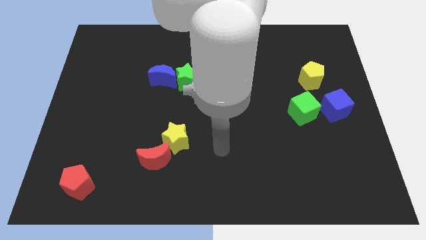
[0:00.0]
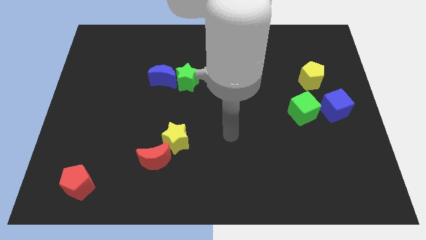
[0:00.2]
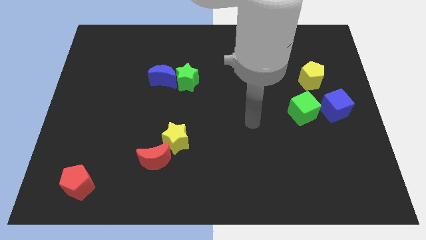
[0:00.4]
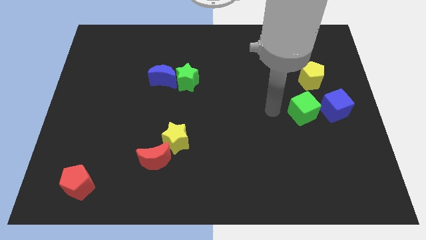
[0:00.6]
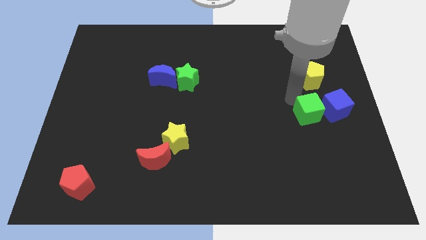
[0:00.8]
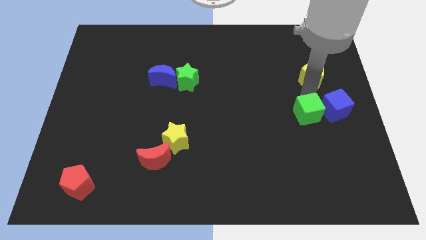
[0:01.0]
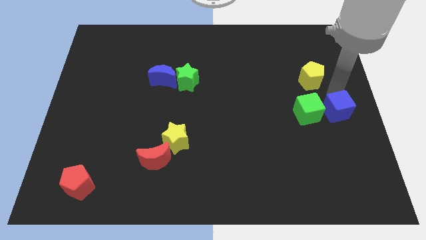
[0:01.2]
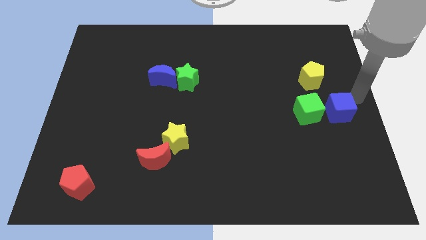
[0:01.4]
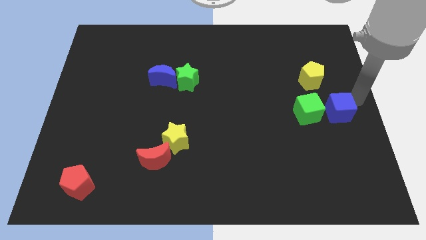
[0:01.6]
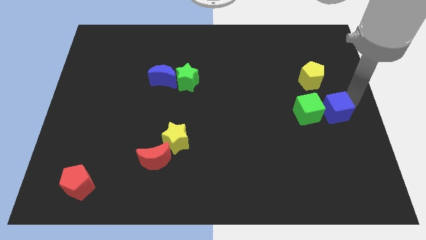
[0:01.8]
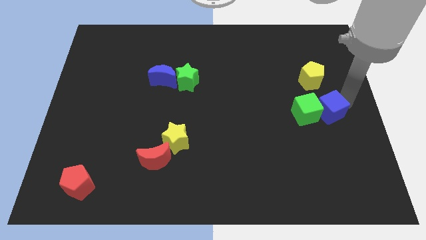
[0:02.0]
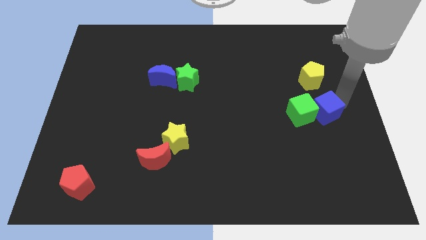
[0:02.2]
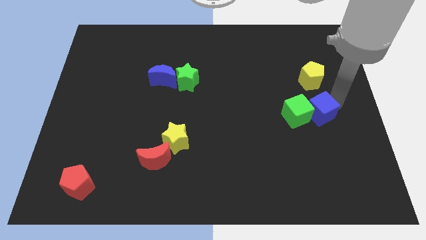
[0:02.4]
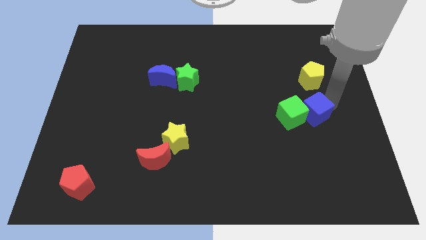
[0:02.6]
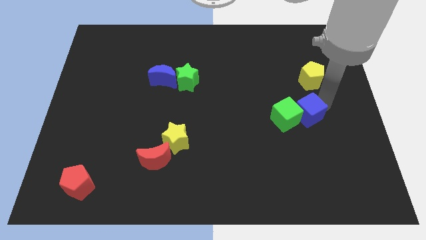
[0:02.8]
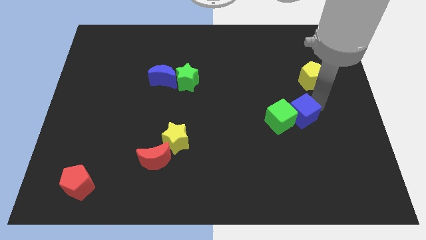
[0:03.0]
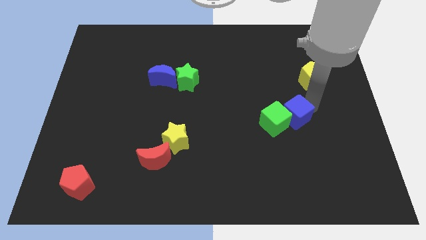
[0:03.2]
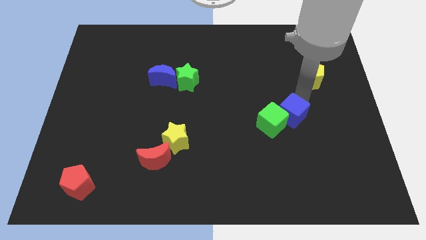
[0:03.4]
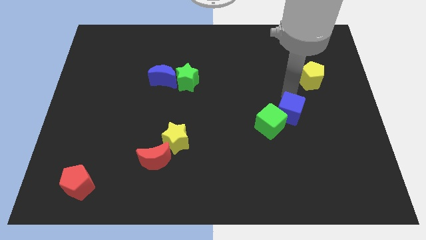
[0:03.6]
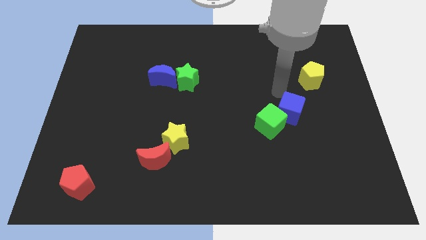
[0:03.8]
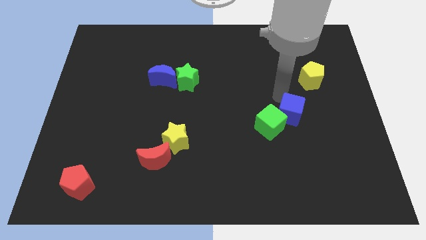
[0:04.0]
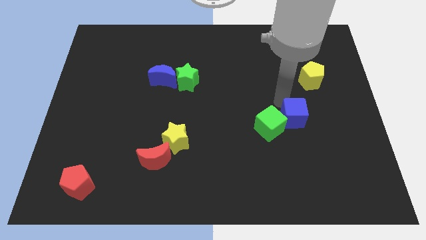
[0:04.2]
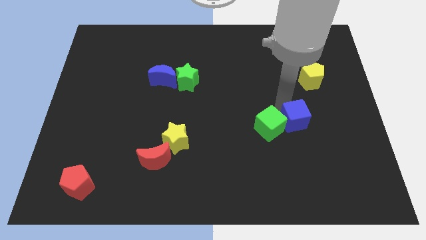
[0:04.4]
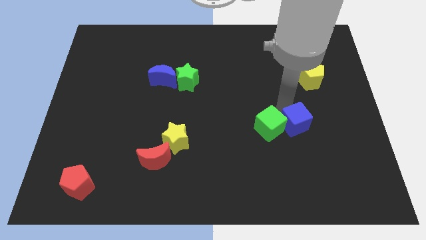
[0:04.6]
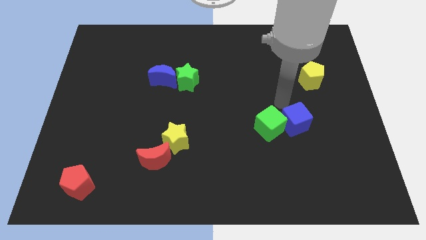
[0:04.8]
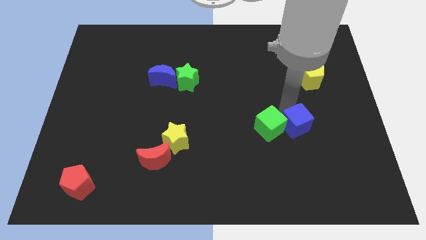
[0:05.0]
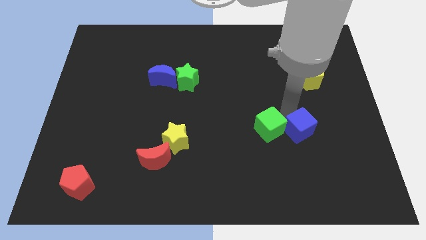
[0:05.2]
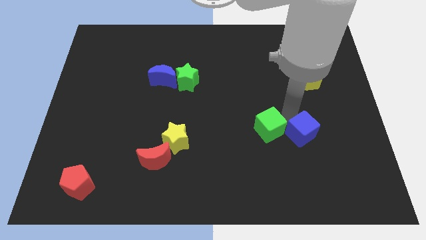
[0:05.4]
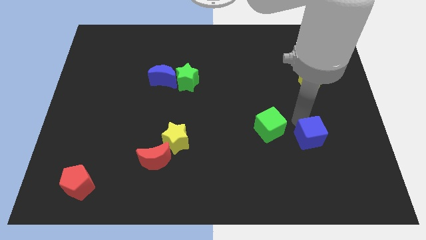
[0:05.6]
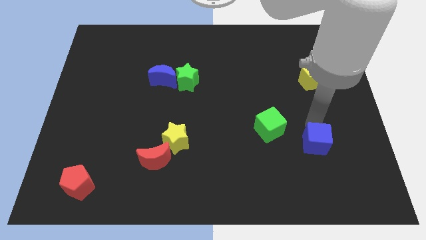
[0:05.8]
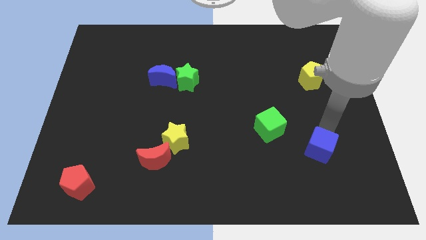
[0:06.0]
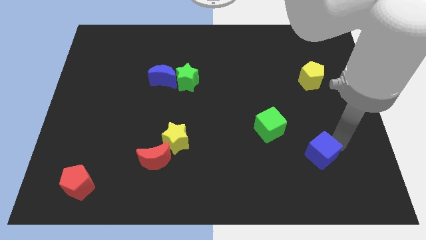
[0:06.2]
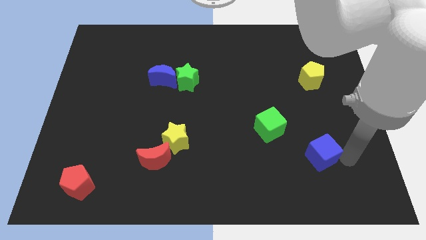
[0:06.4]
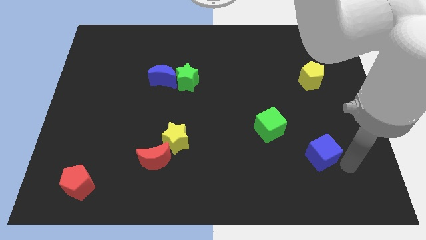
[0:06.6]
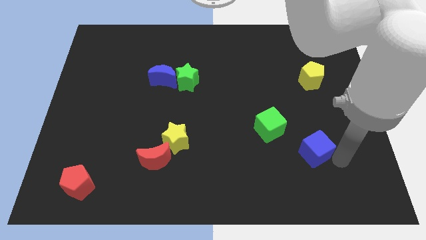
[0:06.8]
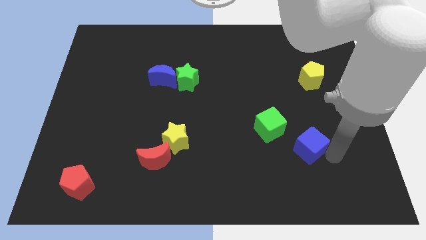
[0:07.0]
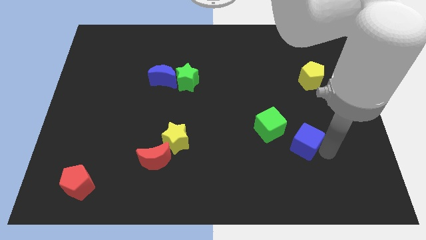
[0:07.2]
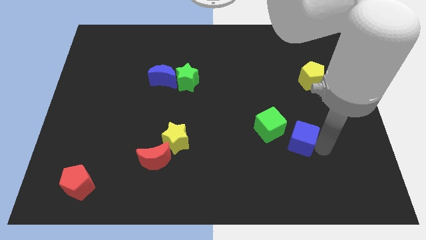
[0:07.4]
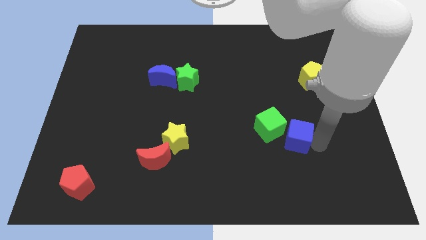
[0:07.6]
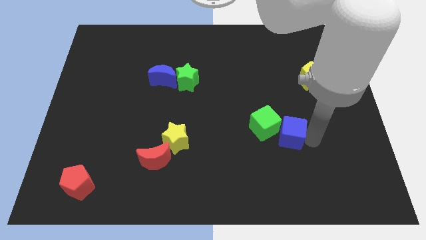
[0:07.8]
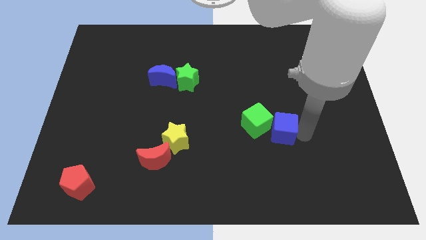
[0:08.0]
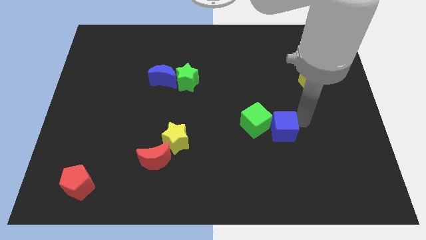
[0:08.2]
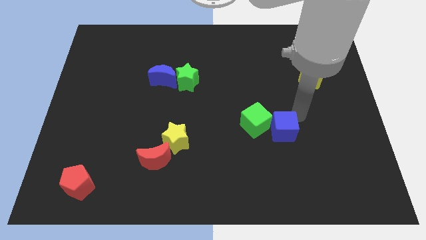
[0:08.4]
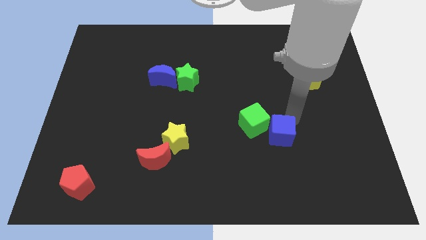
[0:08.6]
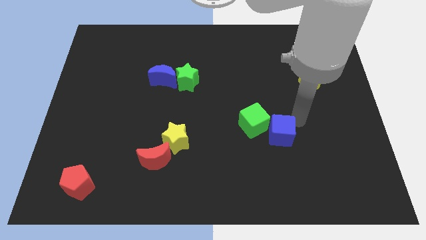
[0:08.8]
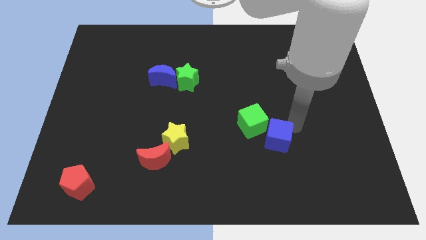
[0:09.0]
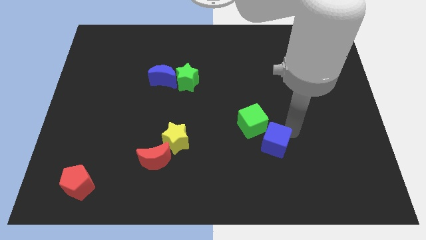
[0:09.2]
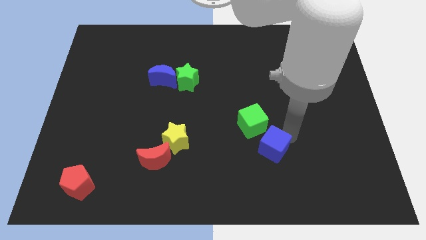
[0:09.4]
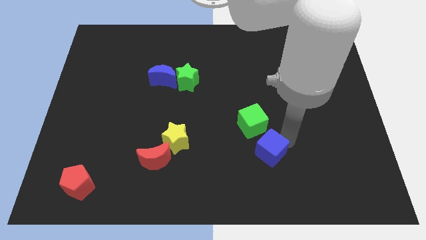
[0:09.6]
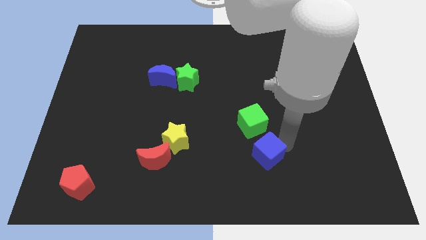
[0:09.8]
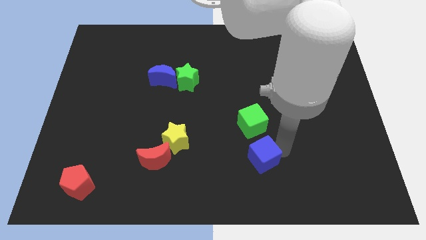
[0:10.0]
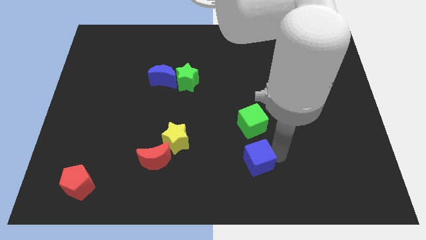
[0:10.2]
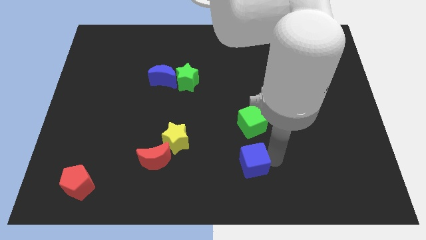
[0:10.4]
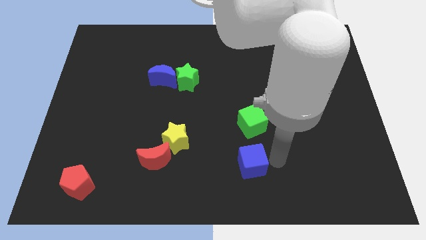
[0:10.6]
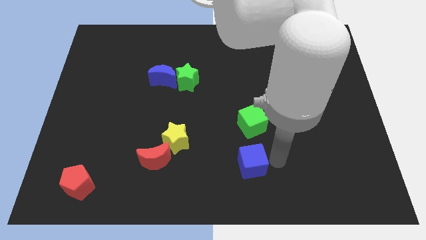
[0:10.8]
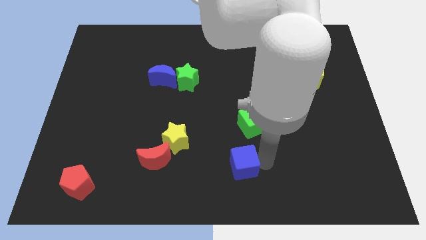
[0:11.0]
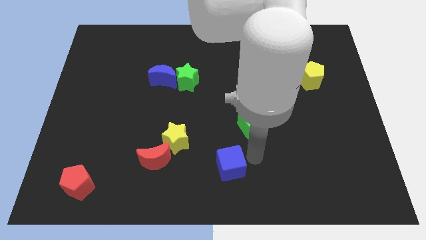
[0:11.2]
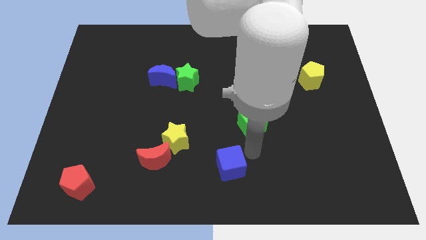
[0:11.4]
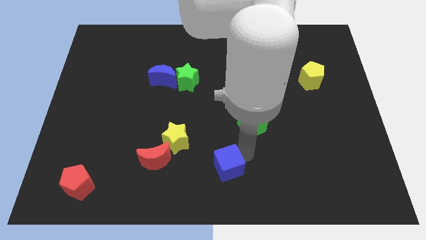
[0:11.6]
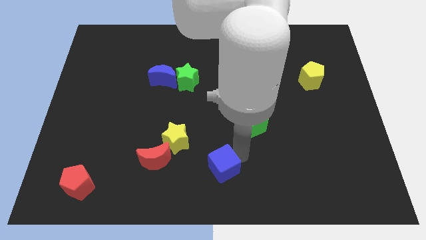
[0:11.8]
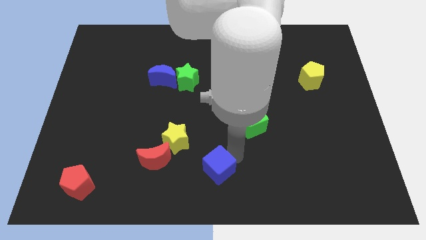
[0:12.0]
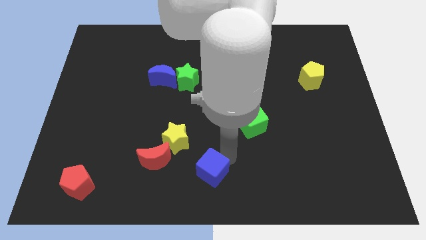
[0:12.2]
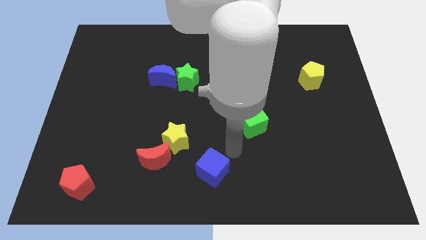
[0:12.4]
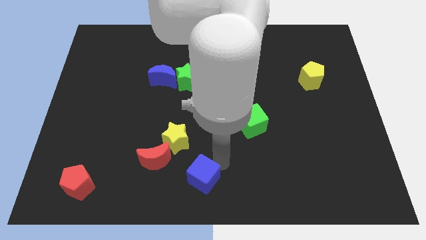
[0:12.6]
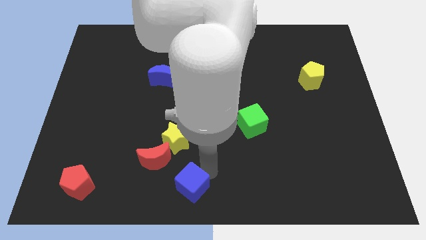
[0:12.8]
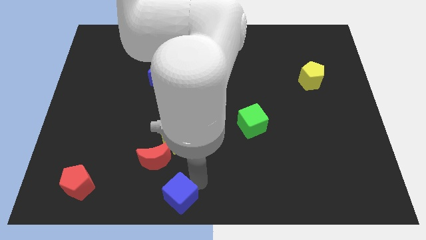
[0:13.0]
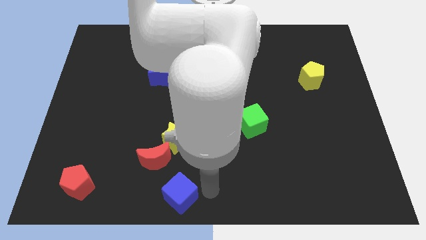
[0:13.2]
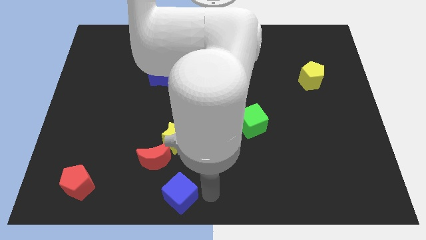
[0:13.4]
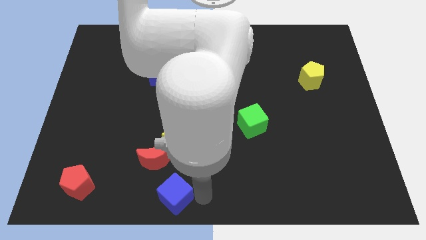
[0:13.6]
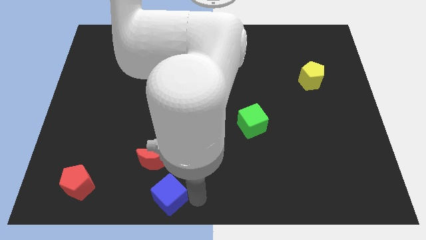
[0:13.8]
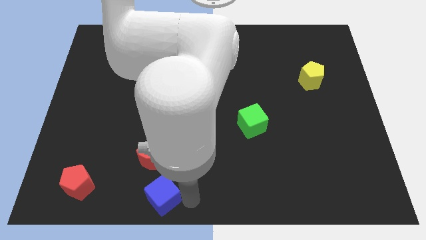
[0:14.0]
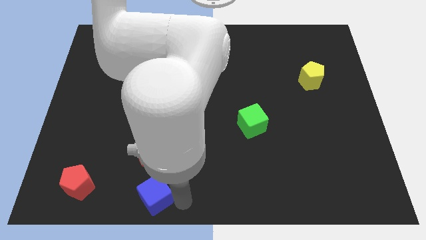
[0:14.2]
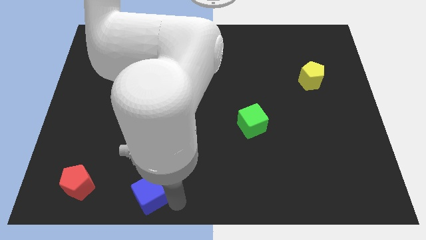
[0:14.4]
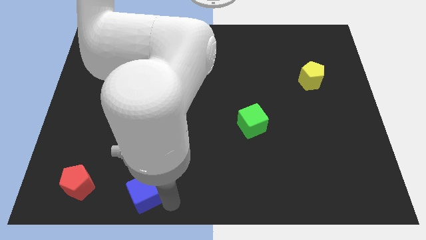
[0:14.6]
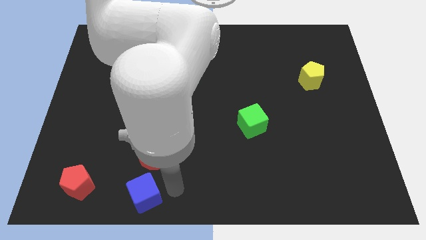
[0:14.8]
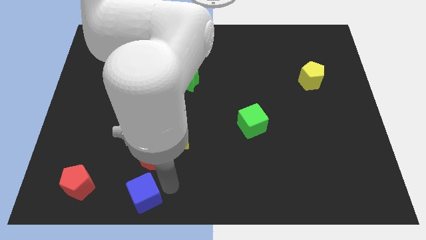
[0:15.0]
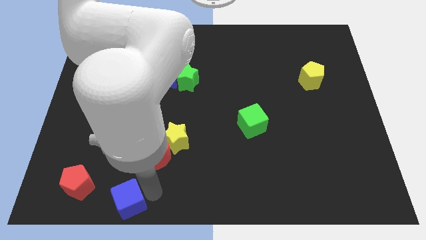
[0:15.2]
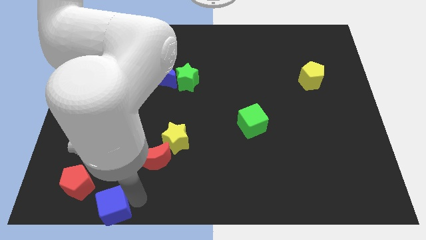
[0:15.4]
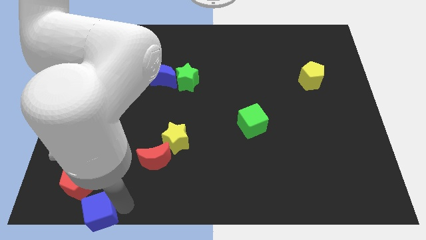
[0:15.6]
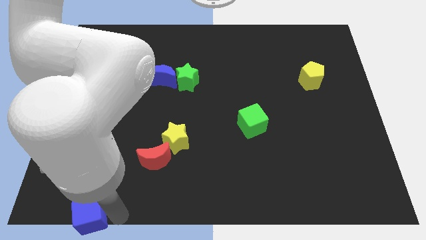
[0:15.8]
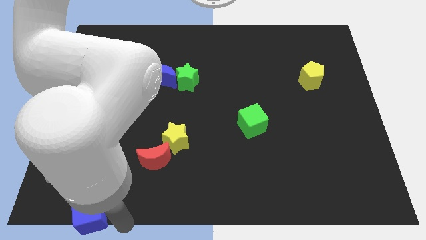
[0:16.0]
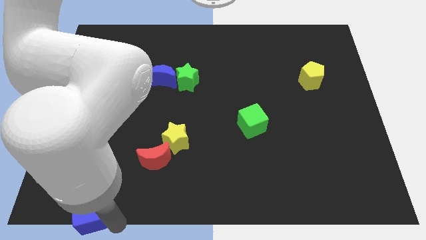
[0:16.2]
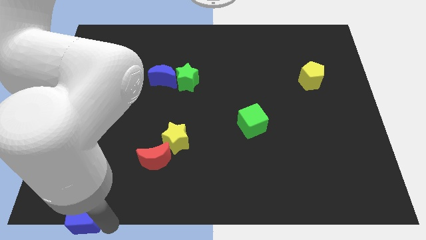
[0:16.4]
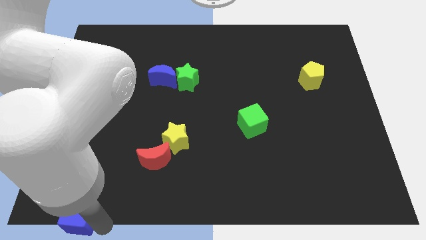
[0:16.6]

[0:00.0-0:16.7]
slide the blue cube to the lower left corner
